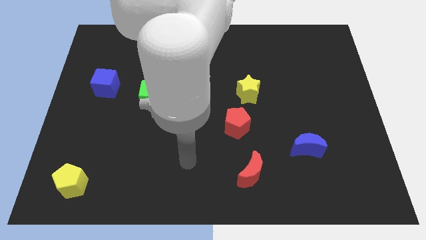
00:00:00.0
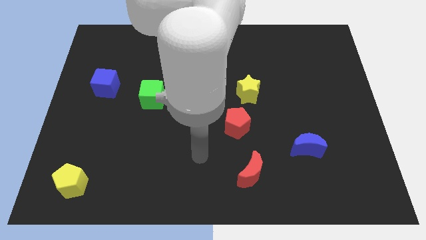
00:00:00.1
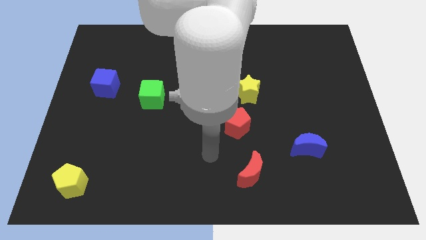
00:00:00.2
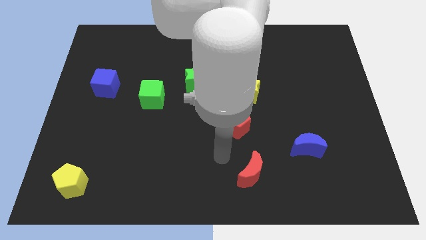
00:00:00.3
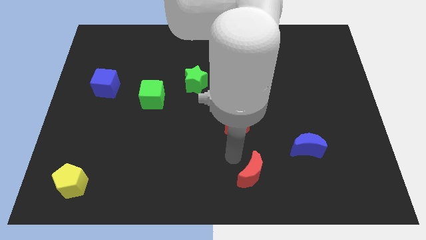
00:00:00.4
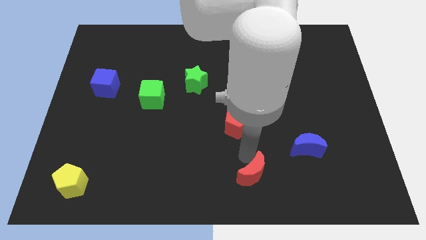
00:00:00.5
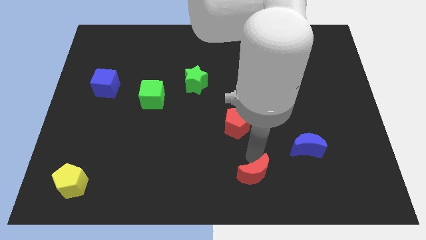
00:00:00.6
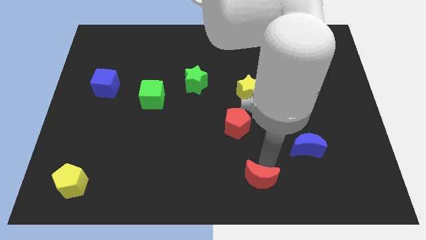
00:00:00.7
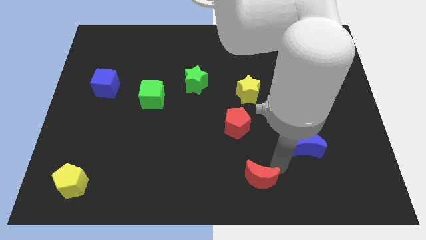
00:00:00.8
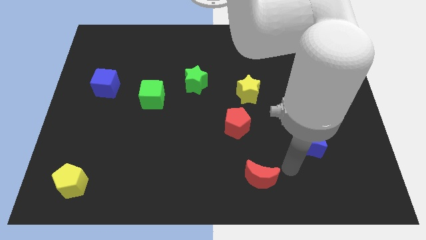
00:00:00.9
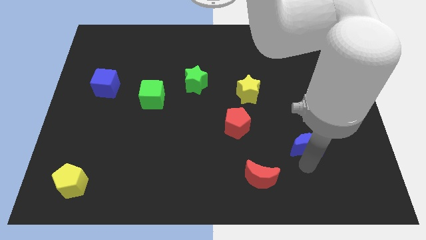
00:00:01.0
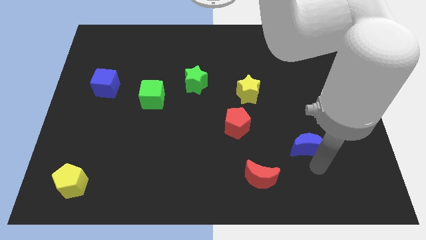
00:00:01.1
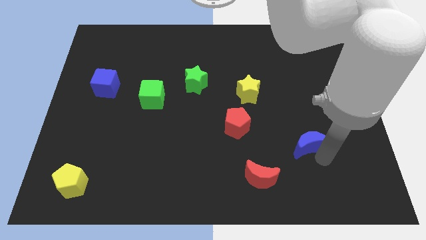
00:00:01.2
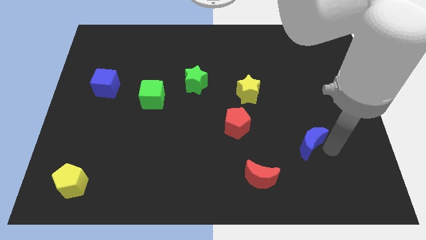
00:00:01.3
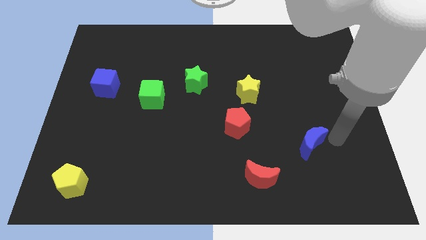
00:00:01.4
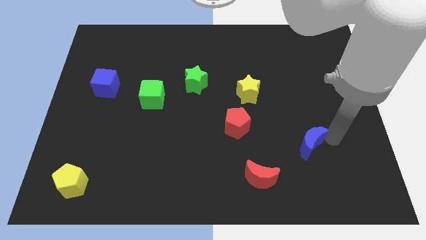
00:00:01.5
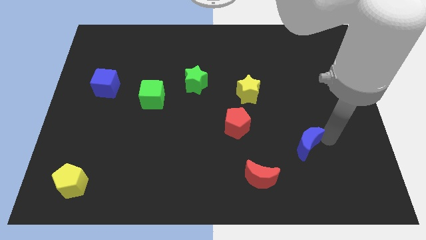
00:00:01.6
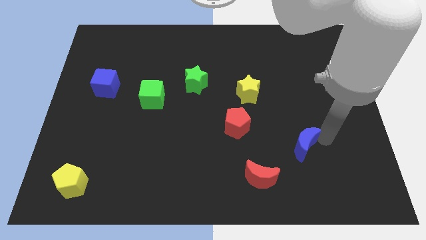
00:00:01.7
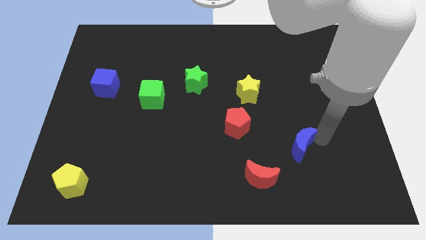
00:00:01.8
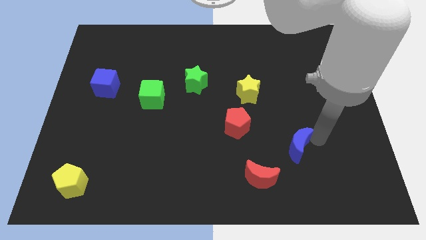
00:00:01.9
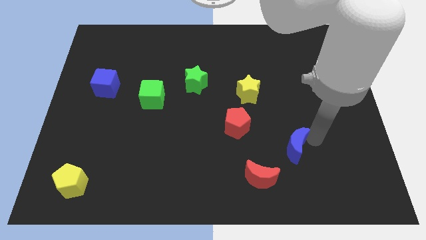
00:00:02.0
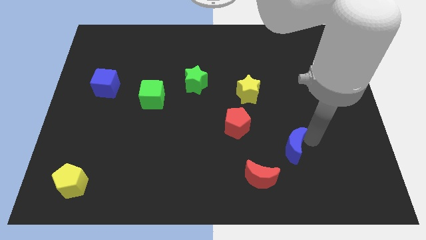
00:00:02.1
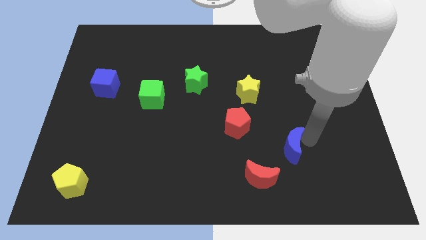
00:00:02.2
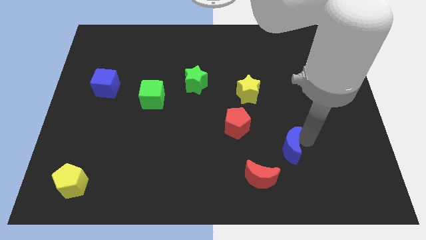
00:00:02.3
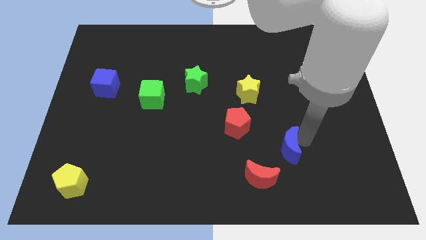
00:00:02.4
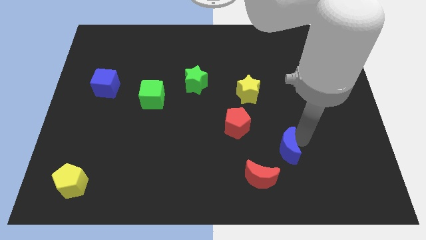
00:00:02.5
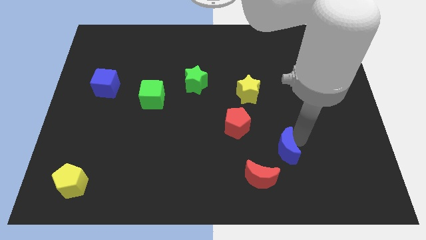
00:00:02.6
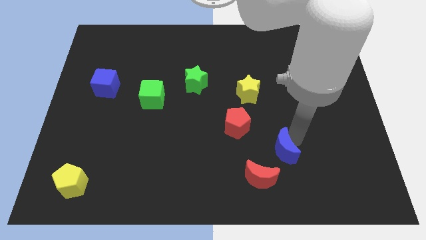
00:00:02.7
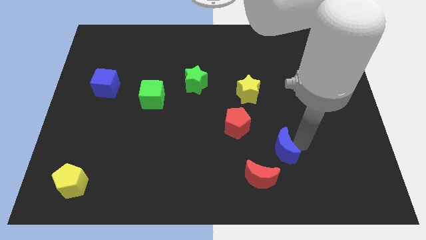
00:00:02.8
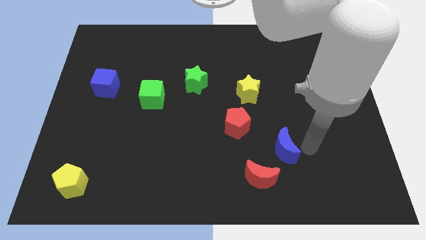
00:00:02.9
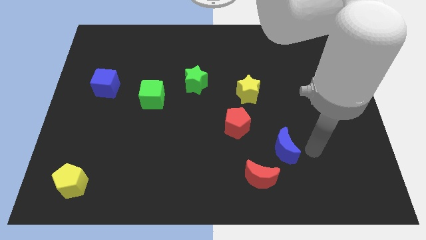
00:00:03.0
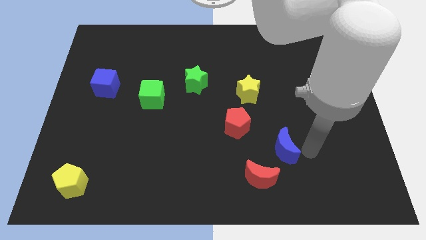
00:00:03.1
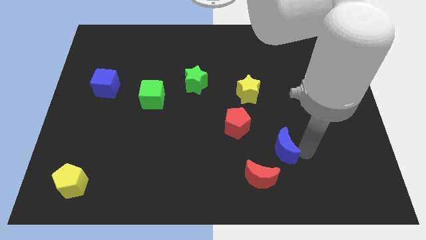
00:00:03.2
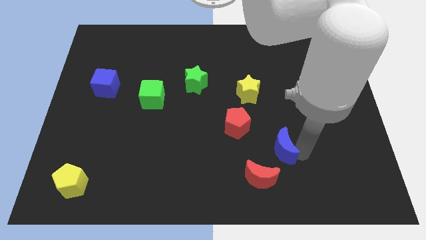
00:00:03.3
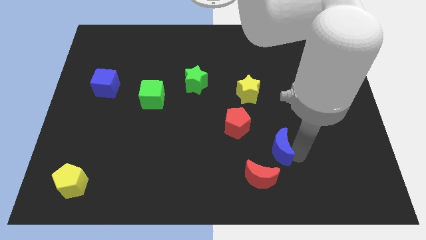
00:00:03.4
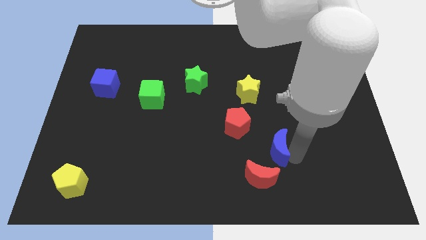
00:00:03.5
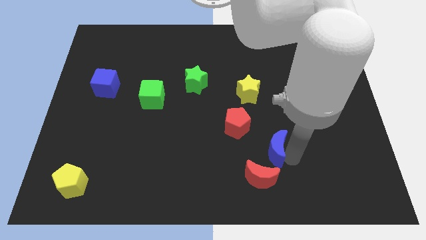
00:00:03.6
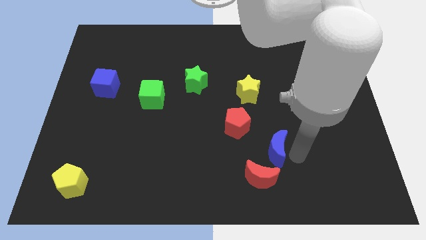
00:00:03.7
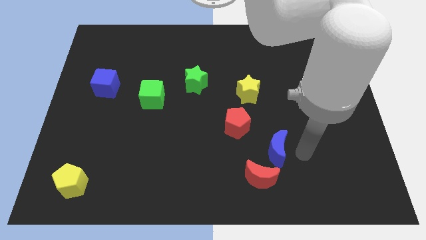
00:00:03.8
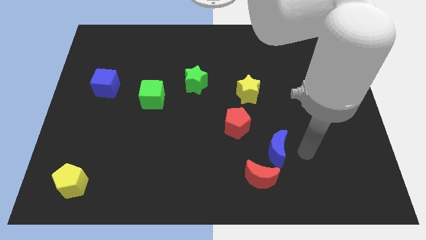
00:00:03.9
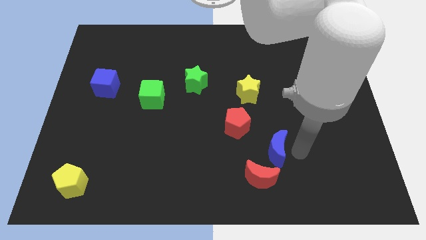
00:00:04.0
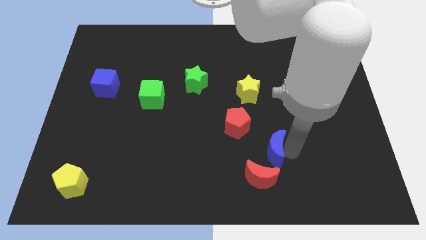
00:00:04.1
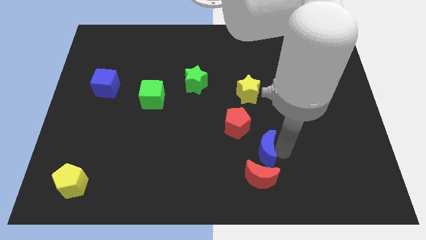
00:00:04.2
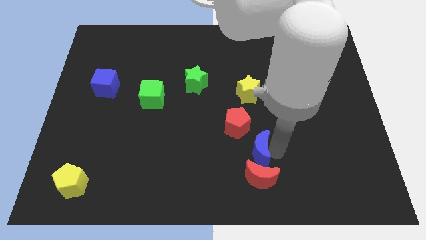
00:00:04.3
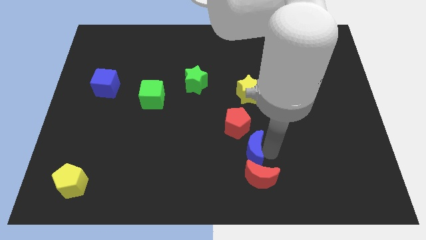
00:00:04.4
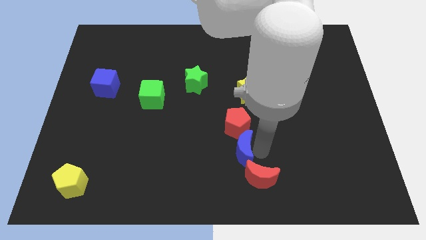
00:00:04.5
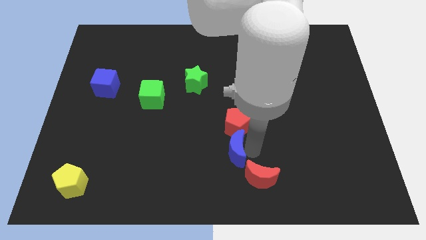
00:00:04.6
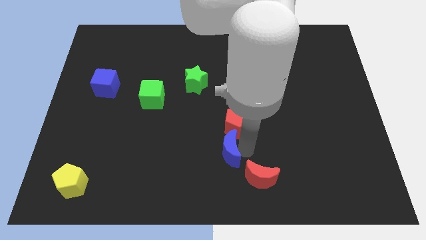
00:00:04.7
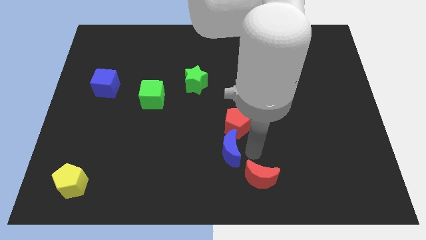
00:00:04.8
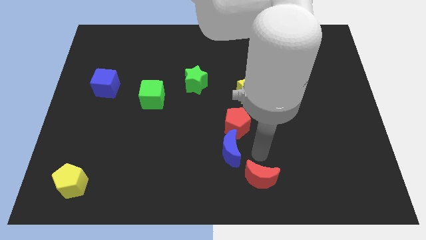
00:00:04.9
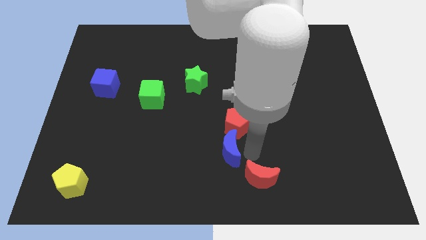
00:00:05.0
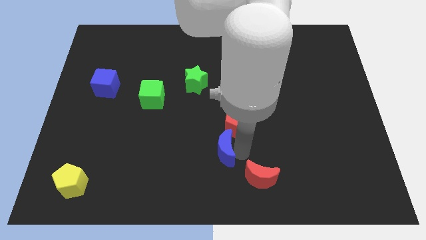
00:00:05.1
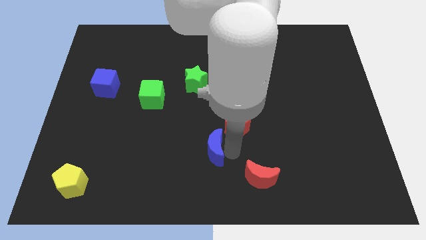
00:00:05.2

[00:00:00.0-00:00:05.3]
push the blue moon left

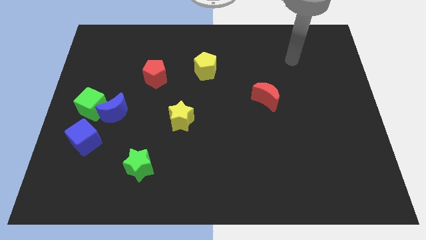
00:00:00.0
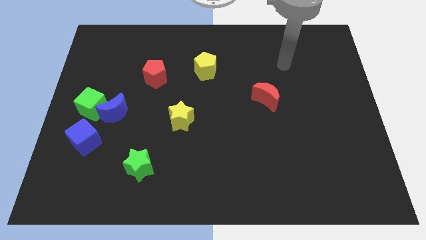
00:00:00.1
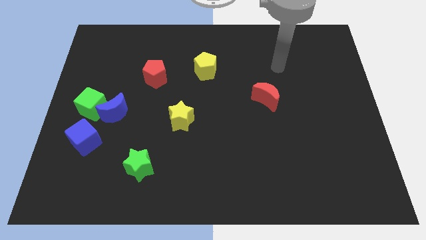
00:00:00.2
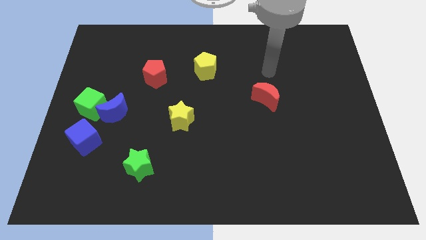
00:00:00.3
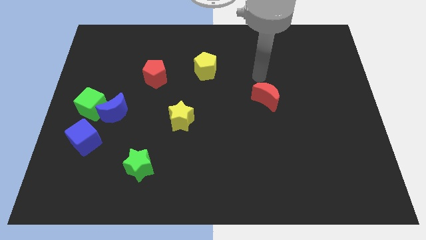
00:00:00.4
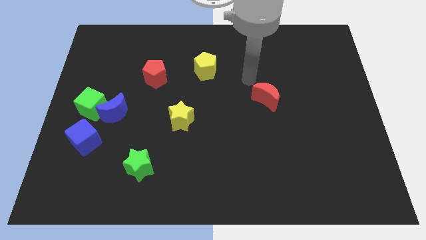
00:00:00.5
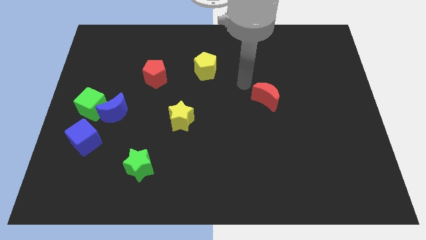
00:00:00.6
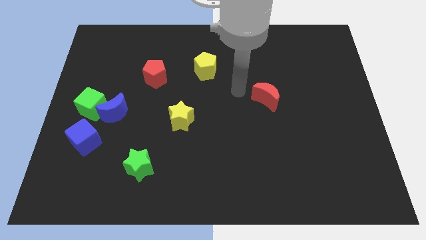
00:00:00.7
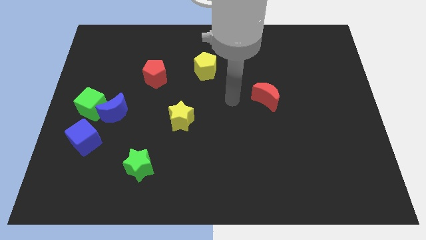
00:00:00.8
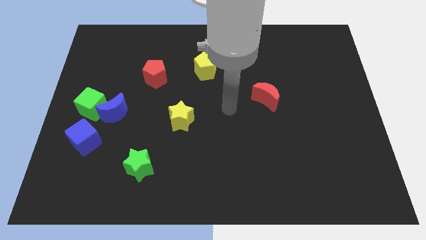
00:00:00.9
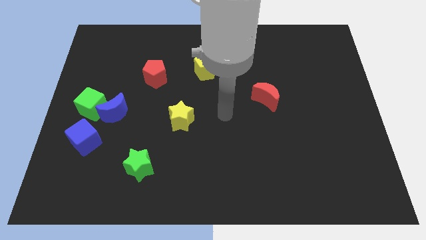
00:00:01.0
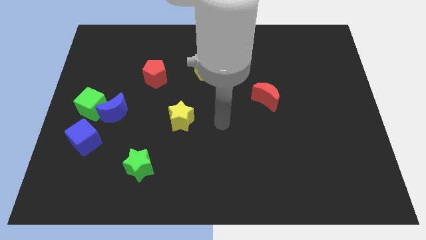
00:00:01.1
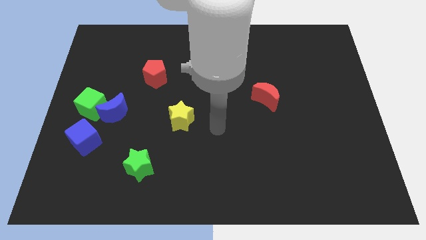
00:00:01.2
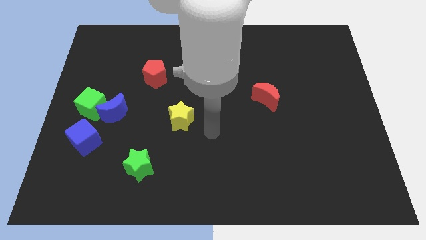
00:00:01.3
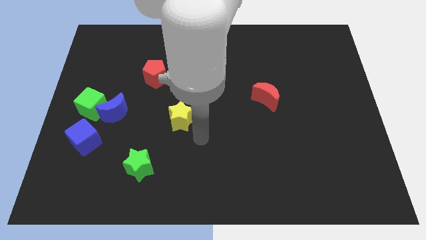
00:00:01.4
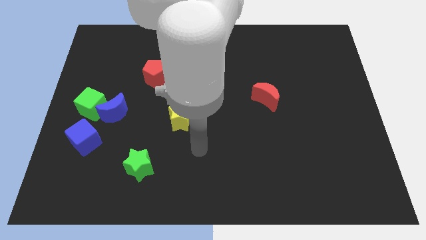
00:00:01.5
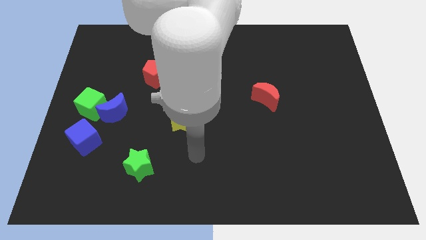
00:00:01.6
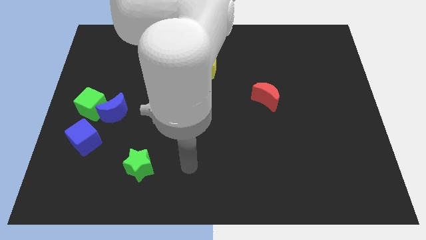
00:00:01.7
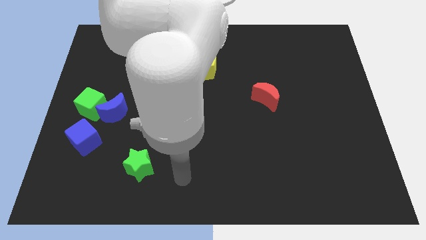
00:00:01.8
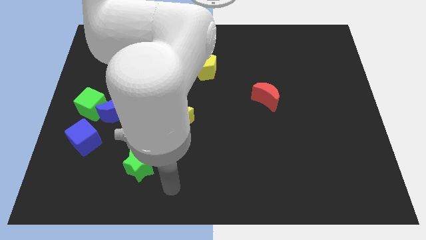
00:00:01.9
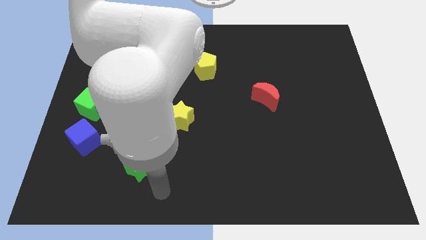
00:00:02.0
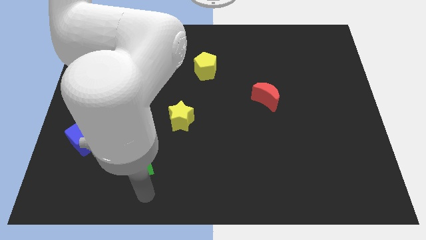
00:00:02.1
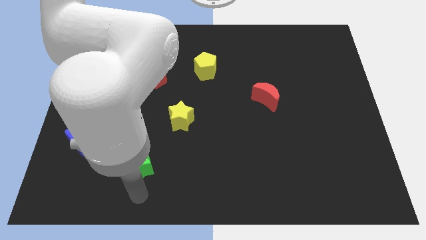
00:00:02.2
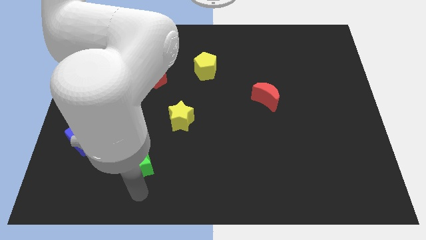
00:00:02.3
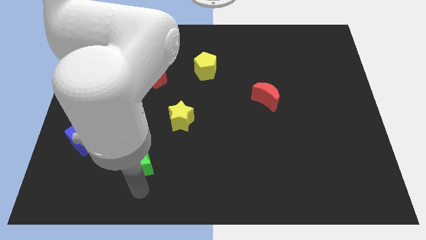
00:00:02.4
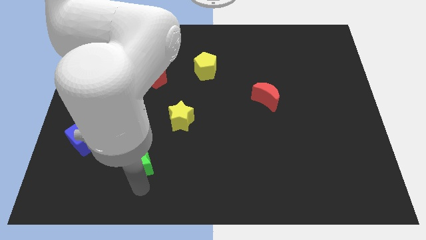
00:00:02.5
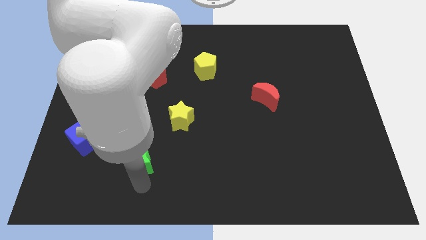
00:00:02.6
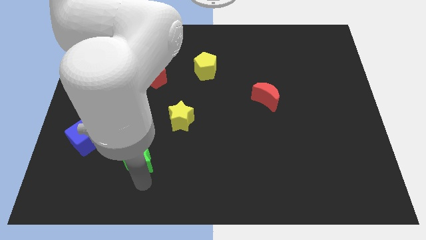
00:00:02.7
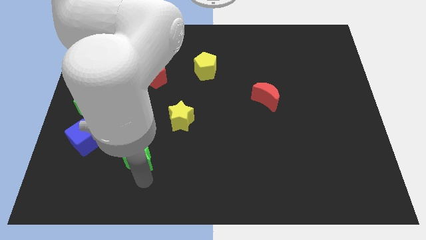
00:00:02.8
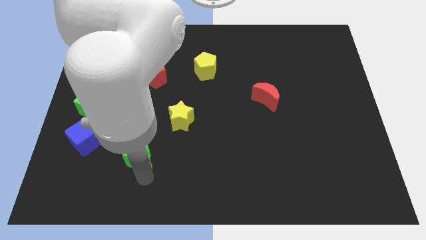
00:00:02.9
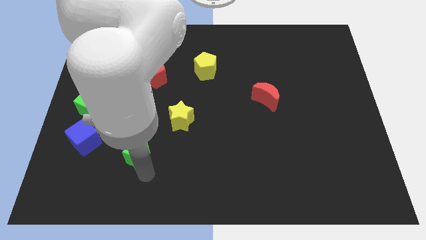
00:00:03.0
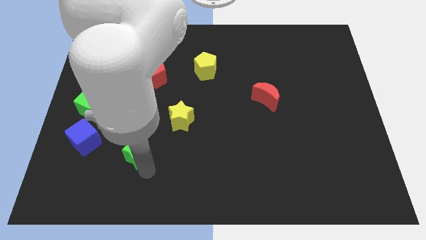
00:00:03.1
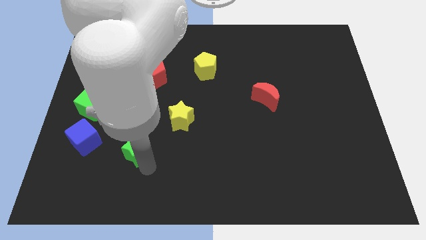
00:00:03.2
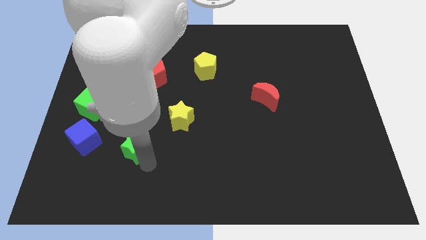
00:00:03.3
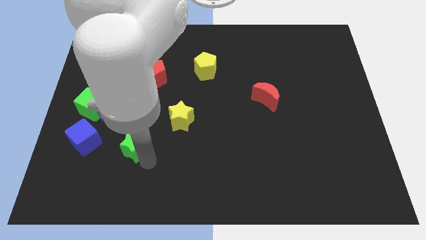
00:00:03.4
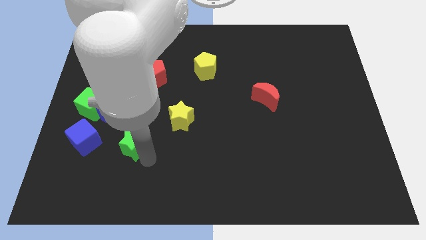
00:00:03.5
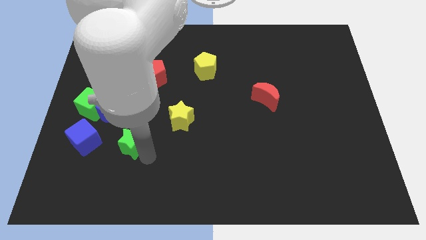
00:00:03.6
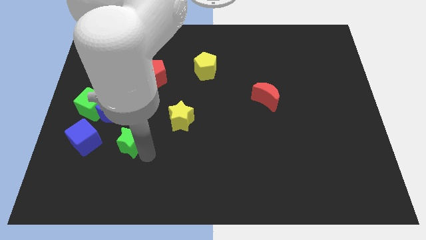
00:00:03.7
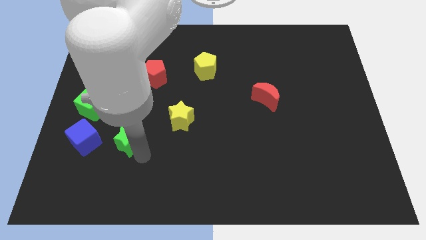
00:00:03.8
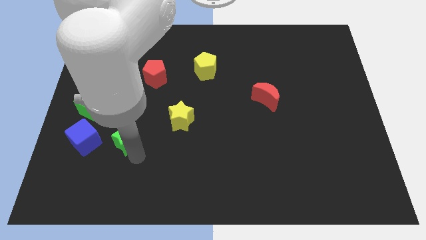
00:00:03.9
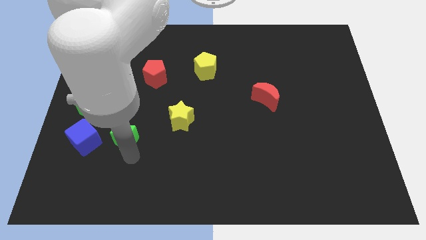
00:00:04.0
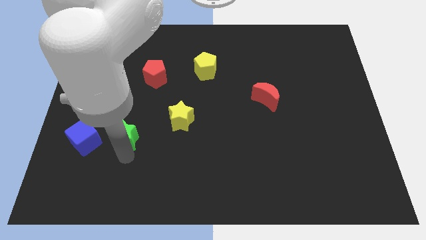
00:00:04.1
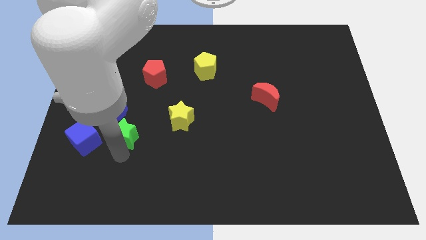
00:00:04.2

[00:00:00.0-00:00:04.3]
slightly slide the green star upwards
